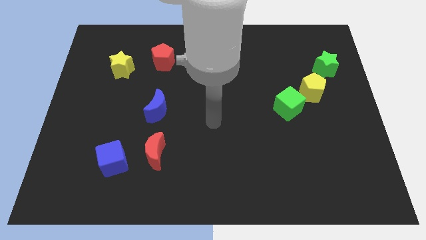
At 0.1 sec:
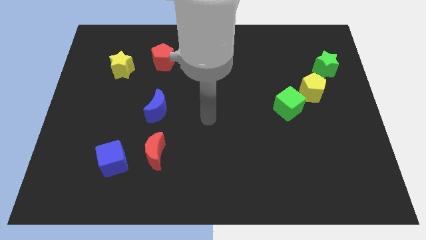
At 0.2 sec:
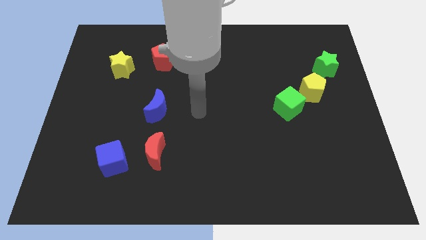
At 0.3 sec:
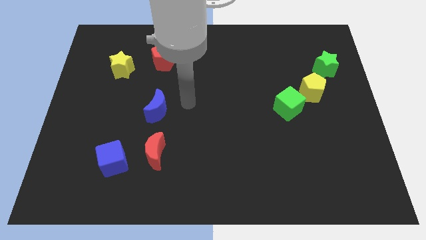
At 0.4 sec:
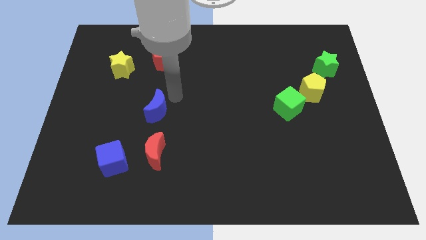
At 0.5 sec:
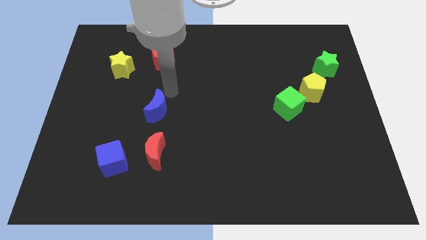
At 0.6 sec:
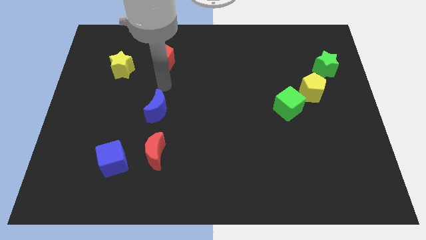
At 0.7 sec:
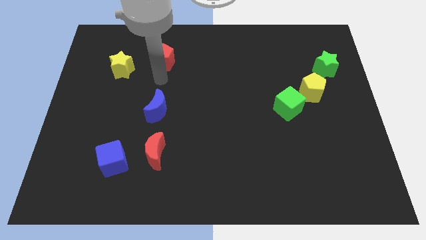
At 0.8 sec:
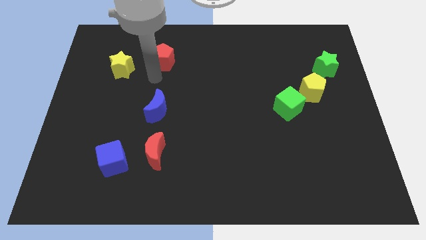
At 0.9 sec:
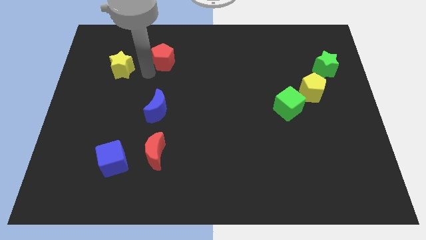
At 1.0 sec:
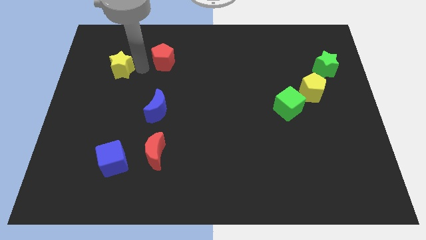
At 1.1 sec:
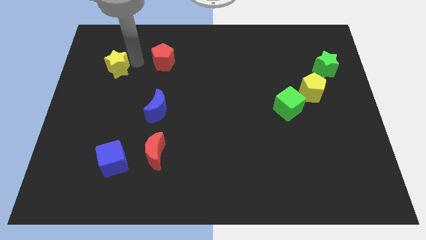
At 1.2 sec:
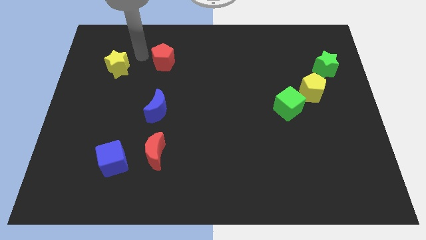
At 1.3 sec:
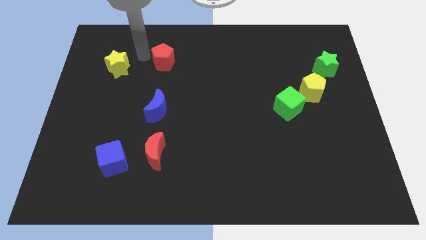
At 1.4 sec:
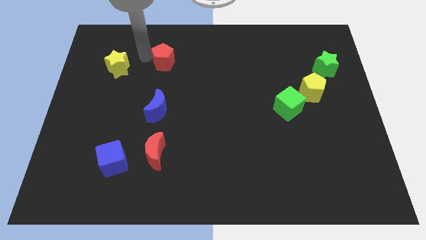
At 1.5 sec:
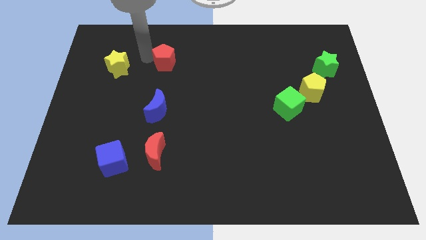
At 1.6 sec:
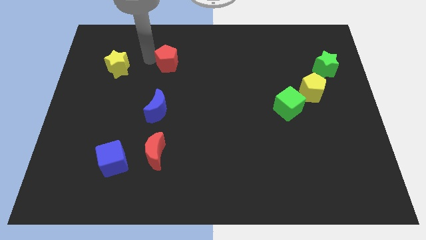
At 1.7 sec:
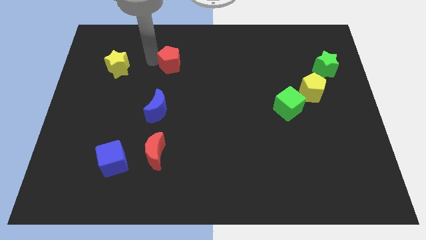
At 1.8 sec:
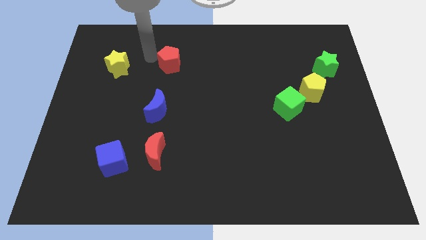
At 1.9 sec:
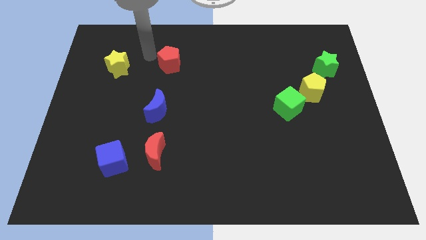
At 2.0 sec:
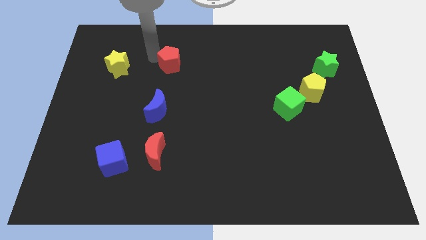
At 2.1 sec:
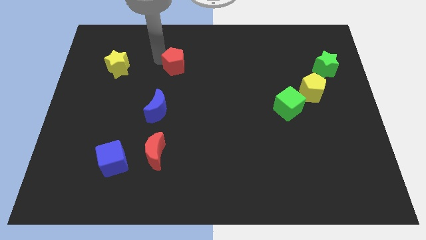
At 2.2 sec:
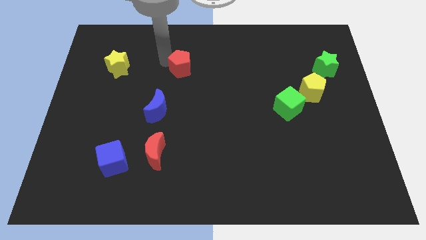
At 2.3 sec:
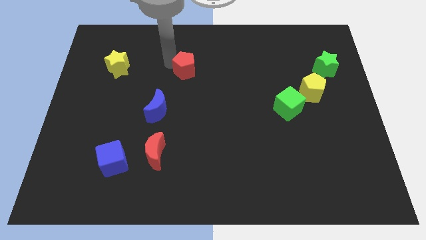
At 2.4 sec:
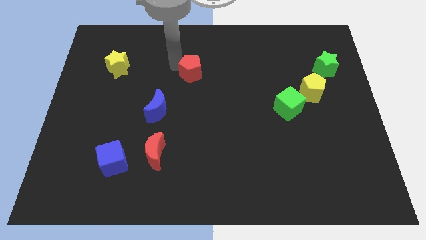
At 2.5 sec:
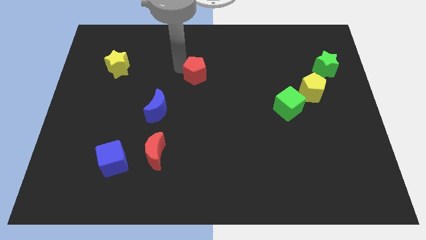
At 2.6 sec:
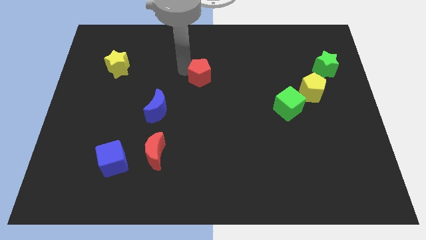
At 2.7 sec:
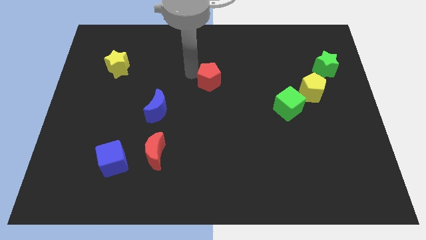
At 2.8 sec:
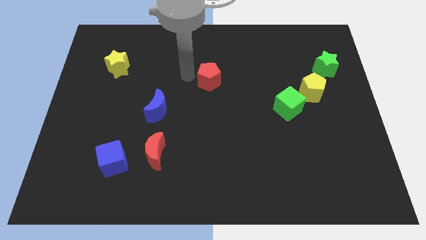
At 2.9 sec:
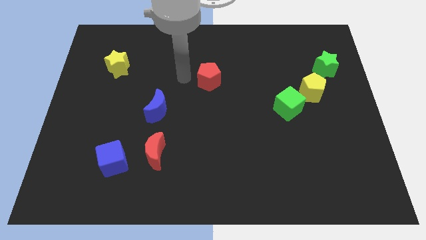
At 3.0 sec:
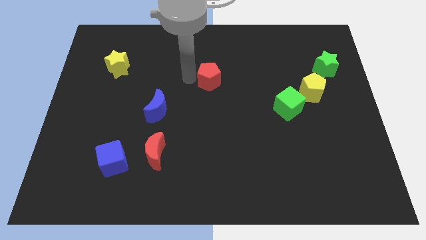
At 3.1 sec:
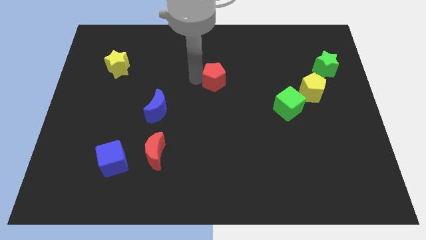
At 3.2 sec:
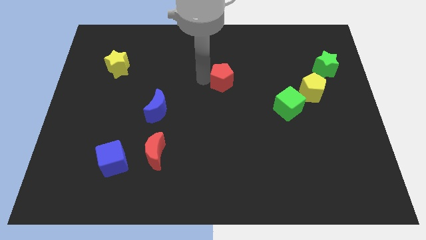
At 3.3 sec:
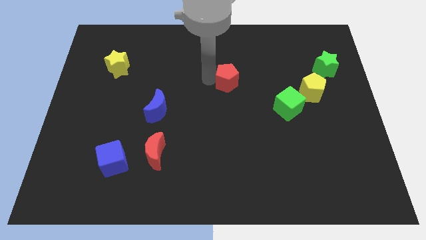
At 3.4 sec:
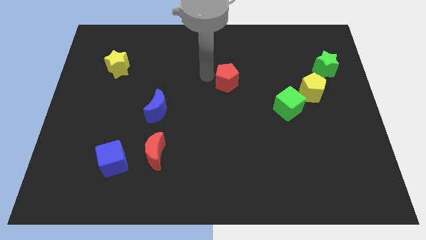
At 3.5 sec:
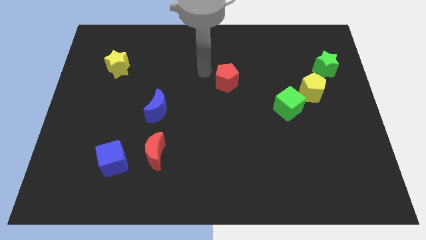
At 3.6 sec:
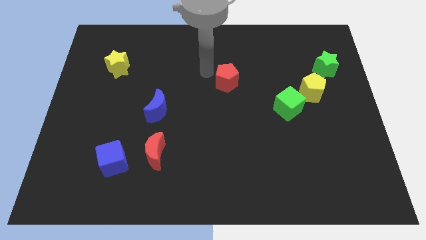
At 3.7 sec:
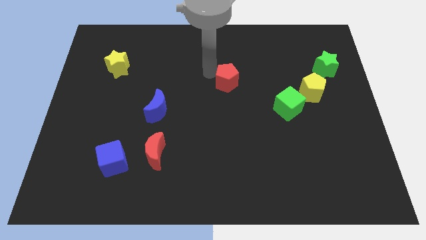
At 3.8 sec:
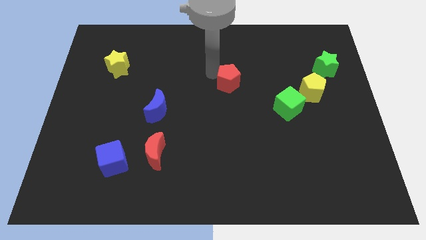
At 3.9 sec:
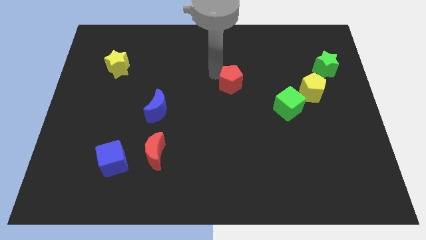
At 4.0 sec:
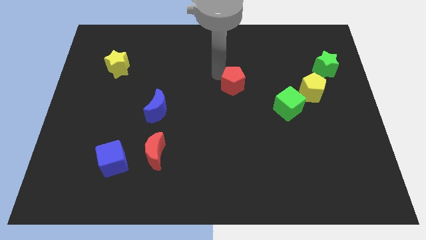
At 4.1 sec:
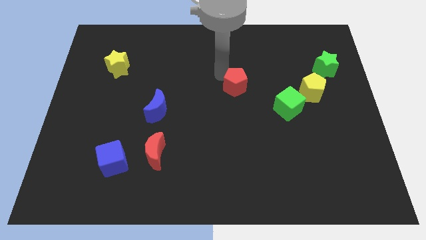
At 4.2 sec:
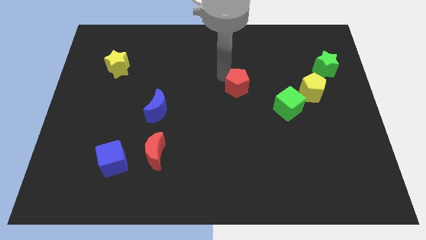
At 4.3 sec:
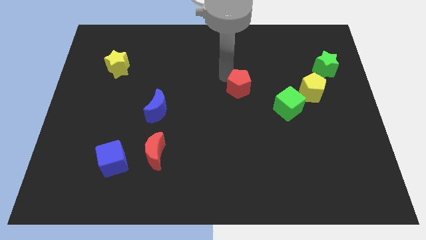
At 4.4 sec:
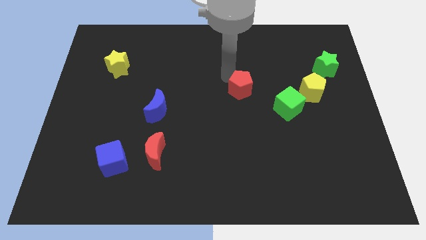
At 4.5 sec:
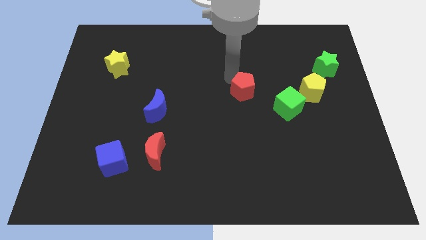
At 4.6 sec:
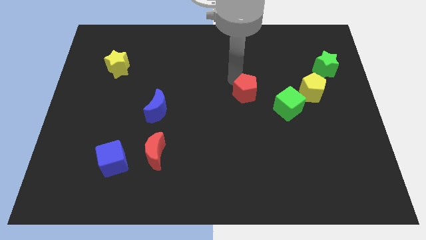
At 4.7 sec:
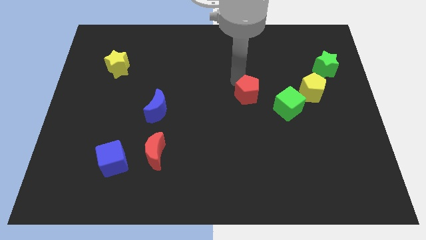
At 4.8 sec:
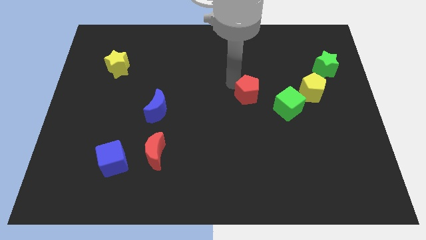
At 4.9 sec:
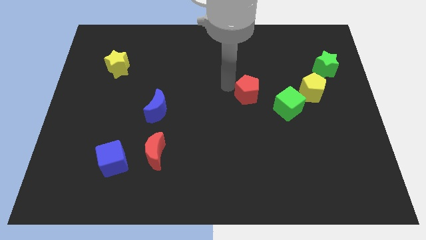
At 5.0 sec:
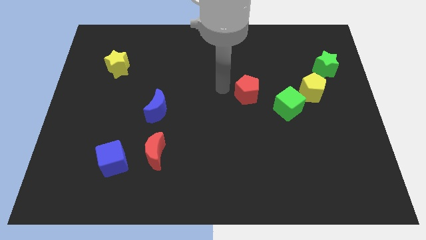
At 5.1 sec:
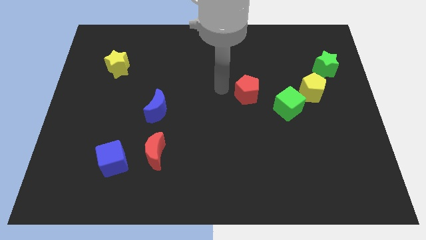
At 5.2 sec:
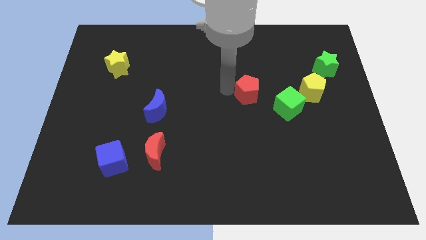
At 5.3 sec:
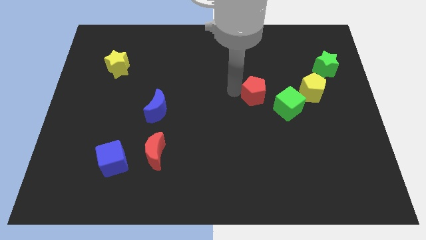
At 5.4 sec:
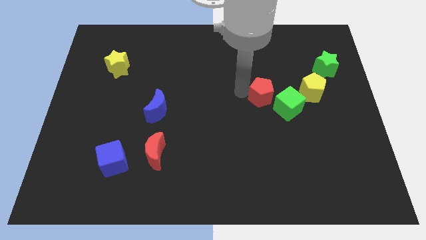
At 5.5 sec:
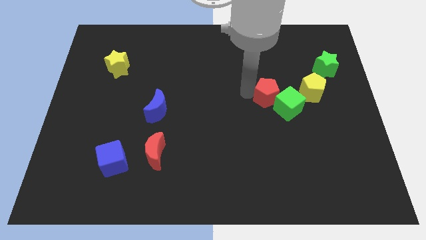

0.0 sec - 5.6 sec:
push the red pentagon next to the green cube

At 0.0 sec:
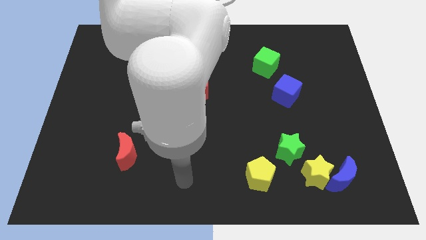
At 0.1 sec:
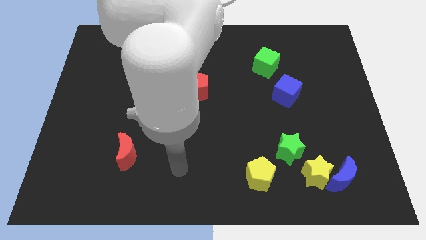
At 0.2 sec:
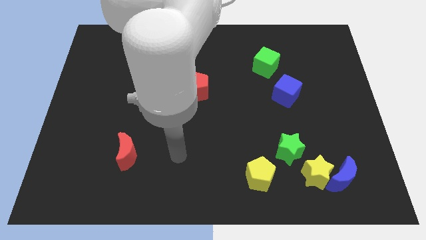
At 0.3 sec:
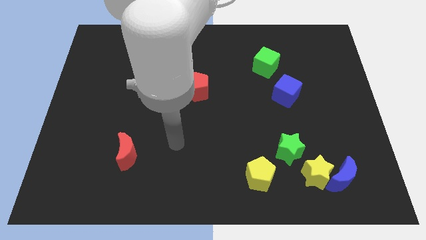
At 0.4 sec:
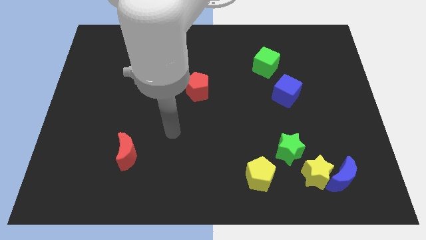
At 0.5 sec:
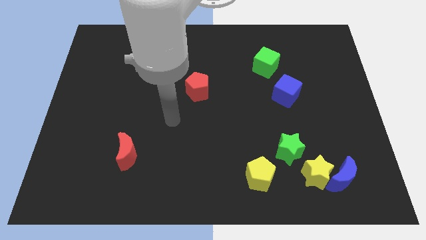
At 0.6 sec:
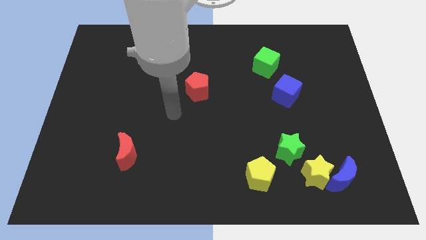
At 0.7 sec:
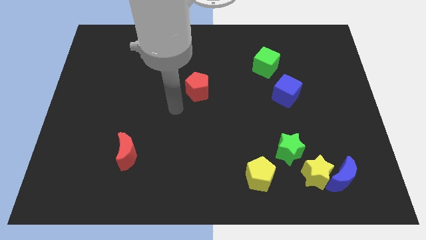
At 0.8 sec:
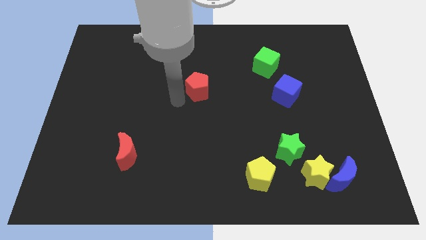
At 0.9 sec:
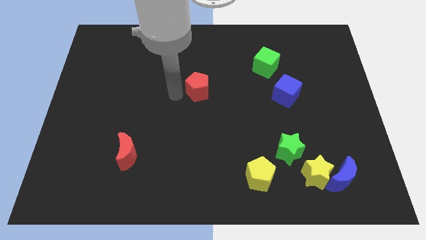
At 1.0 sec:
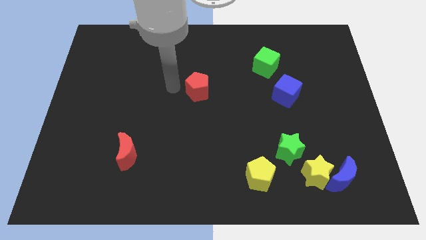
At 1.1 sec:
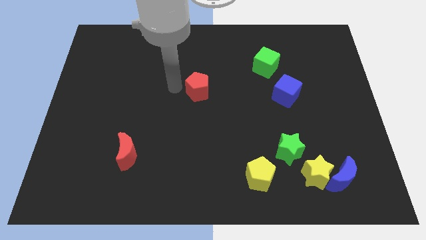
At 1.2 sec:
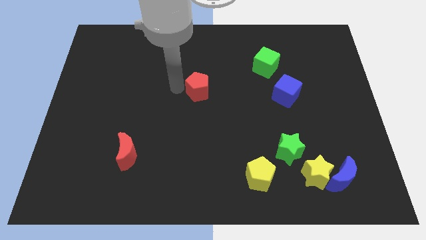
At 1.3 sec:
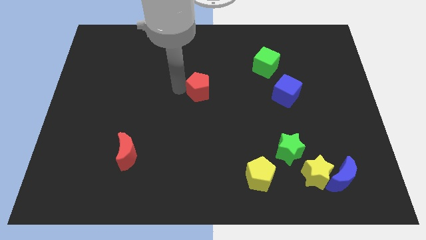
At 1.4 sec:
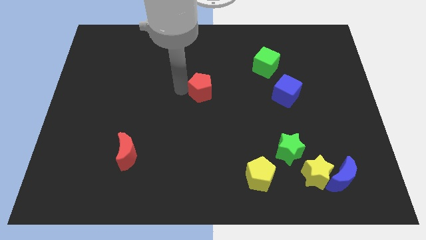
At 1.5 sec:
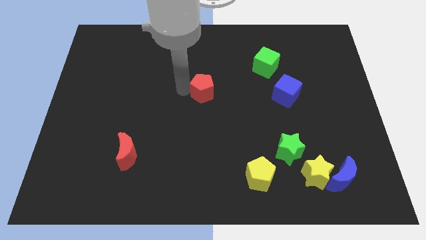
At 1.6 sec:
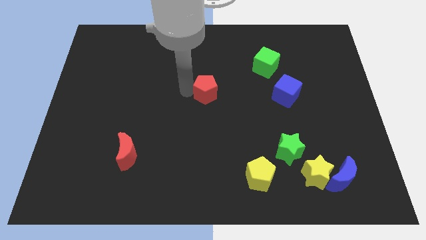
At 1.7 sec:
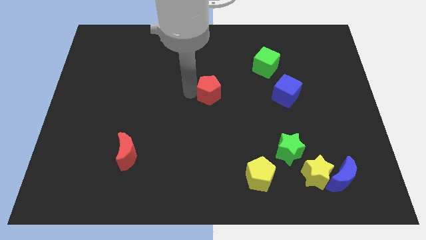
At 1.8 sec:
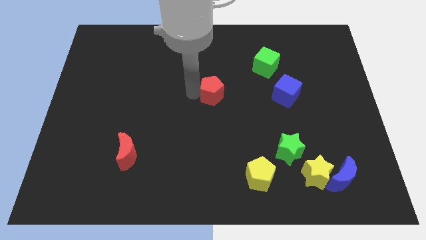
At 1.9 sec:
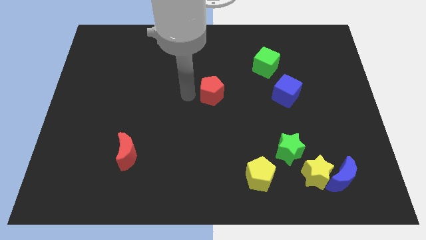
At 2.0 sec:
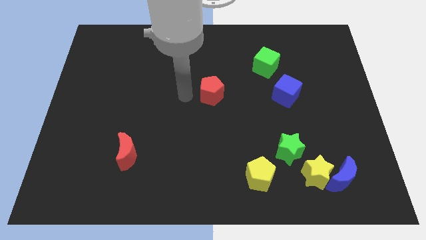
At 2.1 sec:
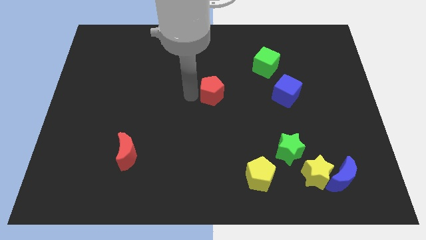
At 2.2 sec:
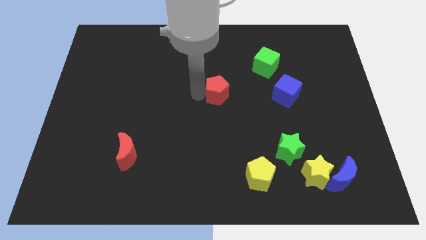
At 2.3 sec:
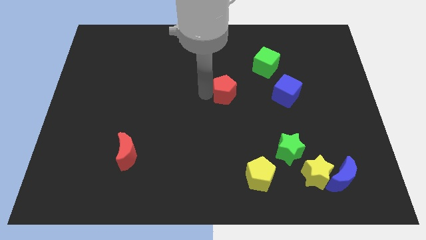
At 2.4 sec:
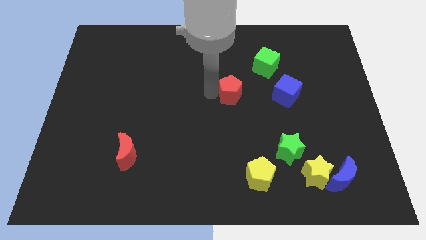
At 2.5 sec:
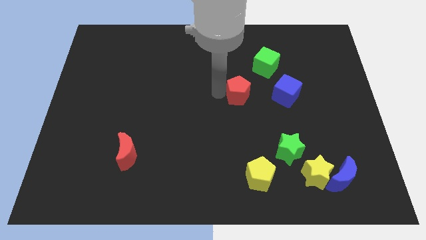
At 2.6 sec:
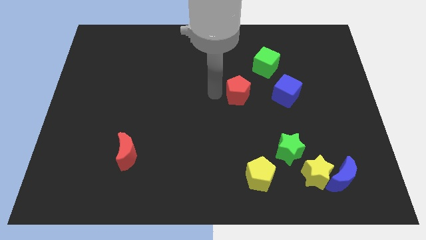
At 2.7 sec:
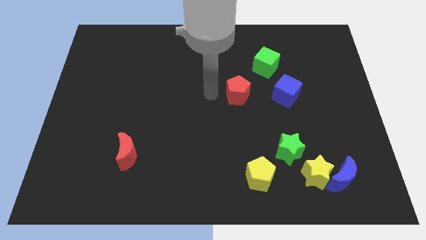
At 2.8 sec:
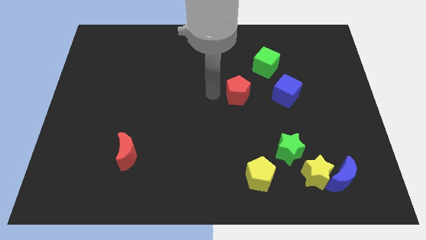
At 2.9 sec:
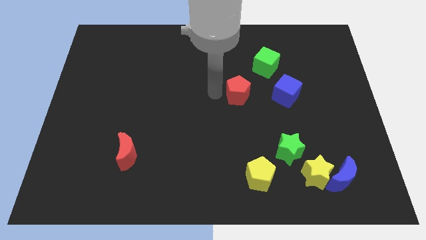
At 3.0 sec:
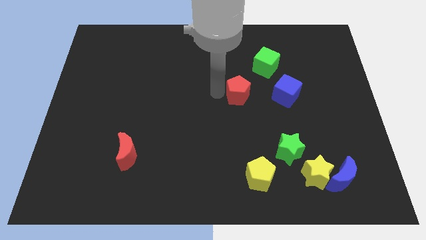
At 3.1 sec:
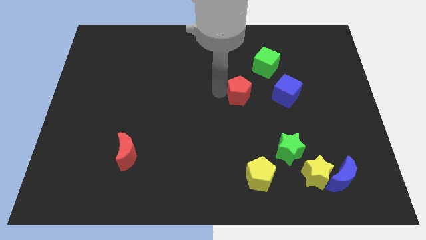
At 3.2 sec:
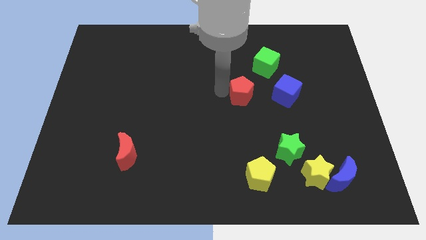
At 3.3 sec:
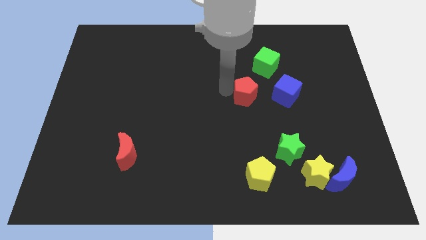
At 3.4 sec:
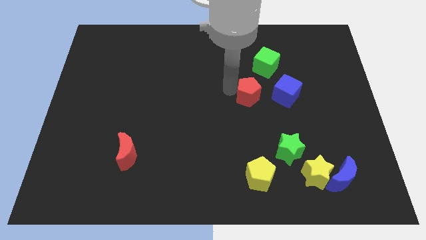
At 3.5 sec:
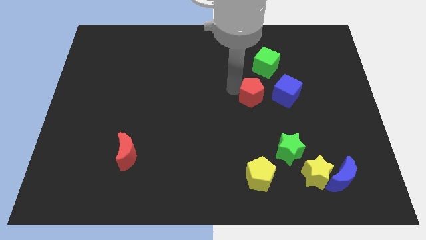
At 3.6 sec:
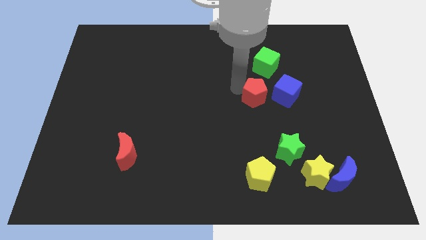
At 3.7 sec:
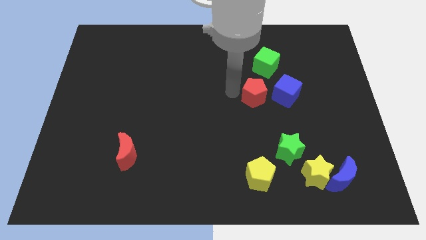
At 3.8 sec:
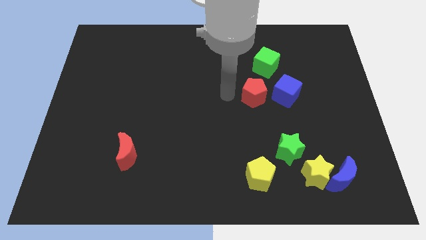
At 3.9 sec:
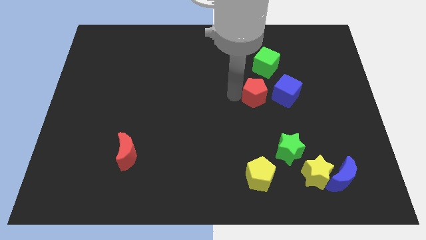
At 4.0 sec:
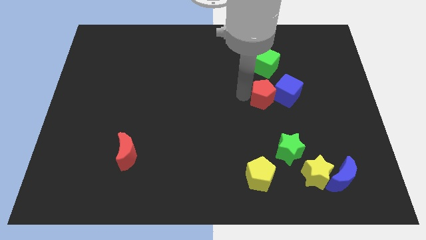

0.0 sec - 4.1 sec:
slide the red pentagon next to the blue cube
